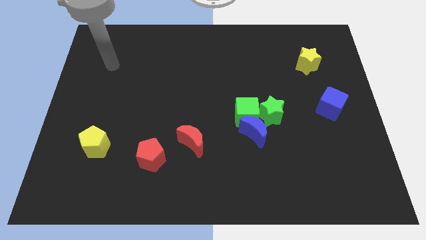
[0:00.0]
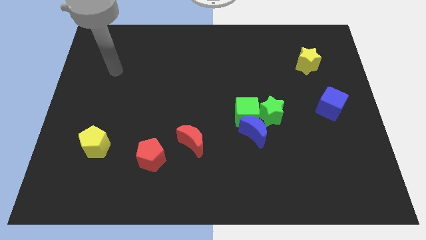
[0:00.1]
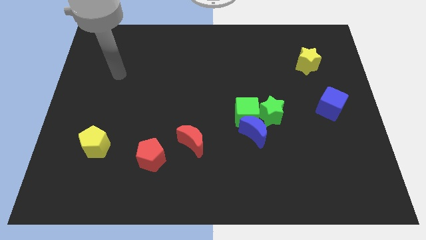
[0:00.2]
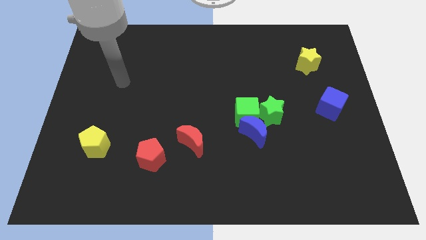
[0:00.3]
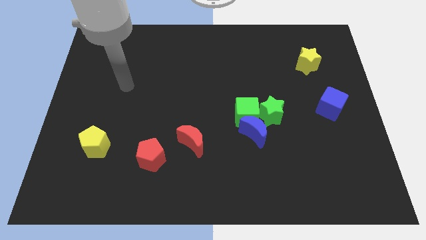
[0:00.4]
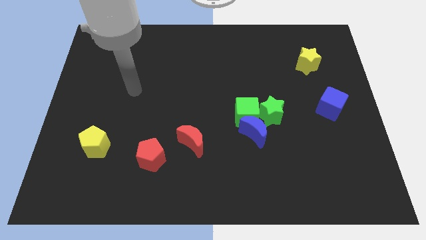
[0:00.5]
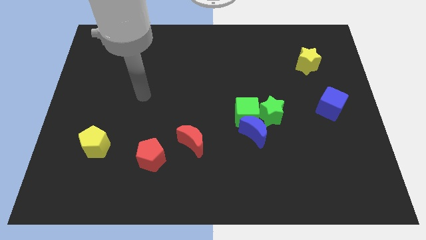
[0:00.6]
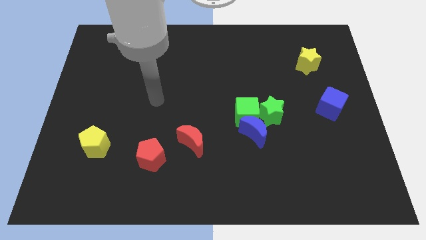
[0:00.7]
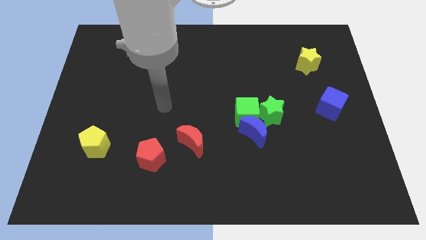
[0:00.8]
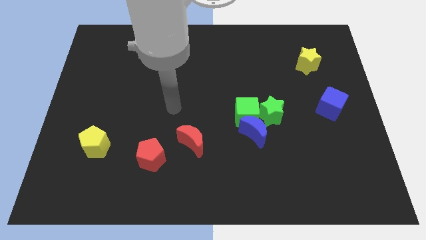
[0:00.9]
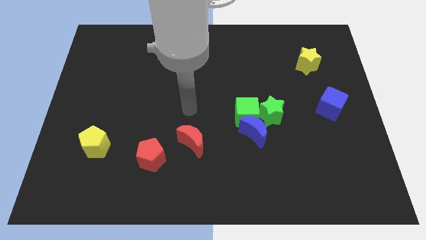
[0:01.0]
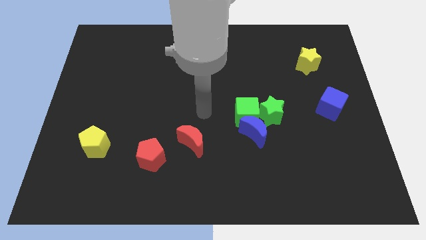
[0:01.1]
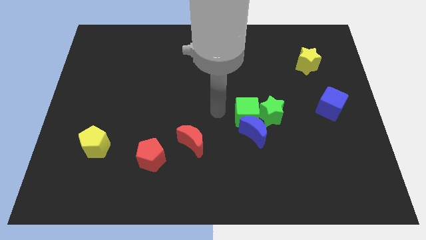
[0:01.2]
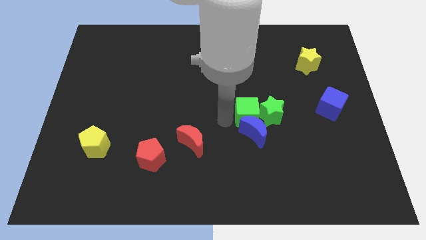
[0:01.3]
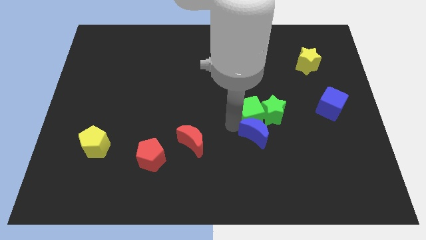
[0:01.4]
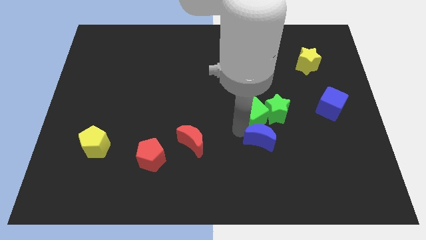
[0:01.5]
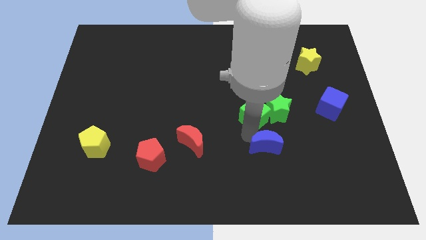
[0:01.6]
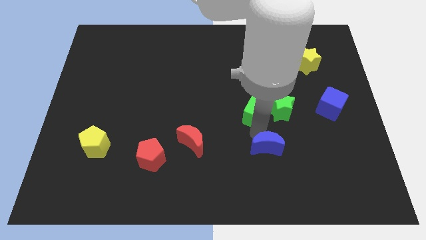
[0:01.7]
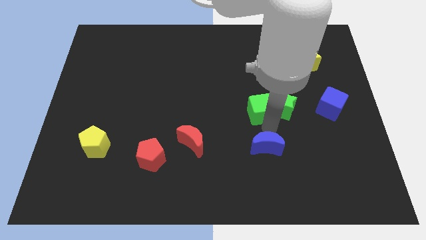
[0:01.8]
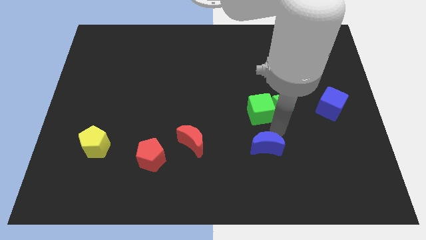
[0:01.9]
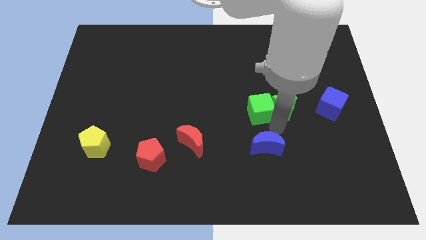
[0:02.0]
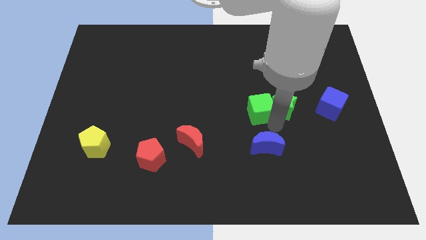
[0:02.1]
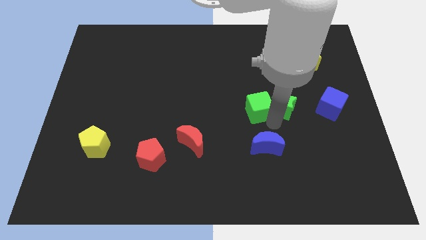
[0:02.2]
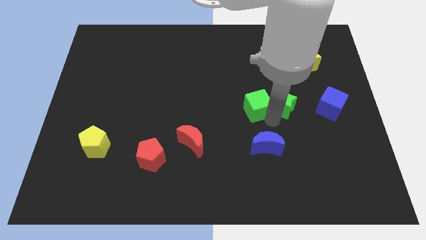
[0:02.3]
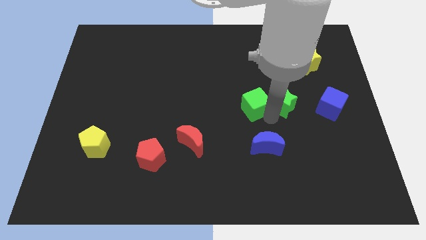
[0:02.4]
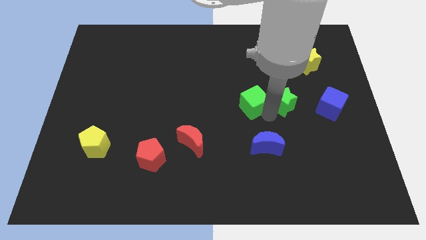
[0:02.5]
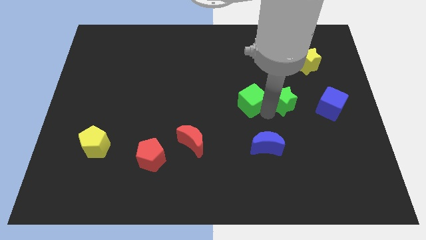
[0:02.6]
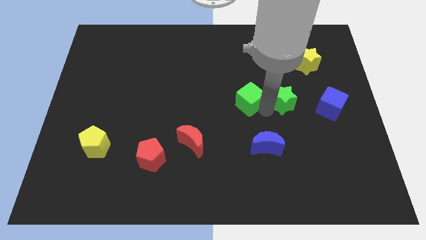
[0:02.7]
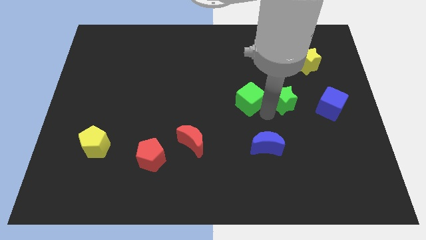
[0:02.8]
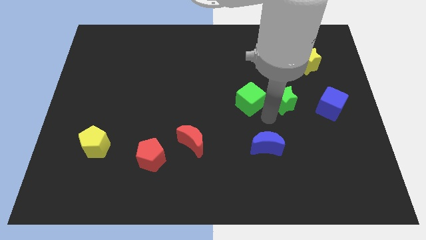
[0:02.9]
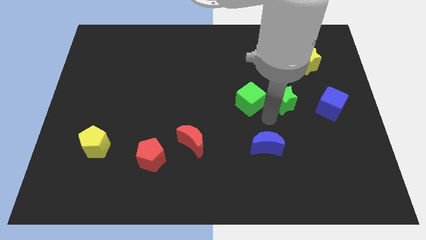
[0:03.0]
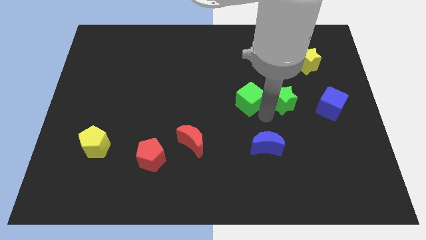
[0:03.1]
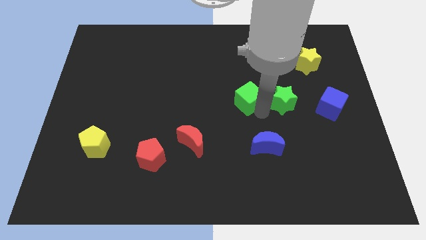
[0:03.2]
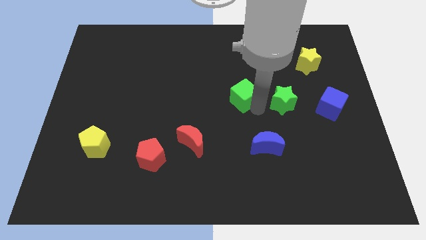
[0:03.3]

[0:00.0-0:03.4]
move the green cube away from the blue moon and green star

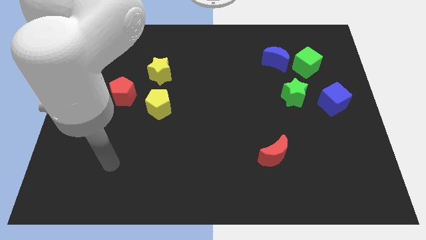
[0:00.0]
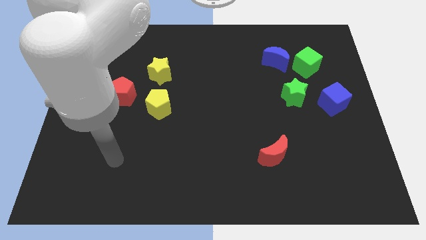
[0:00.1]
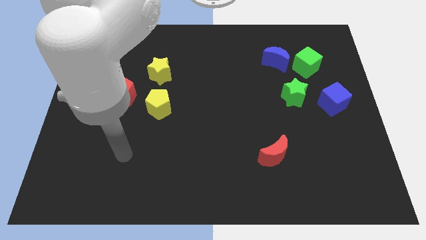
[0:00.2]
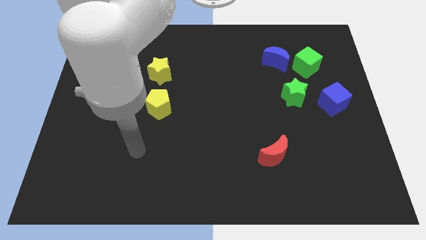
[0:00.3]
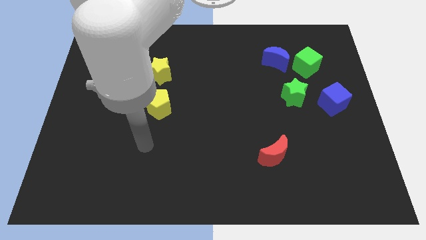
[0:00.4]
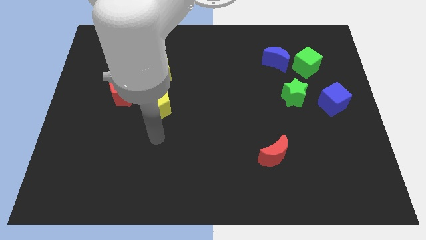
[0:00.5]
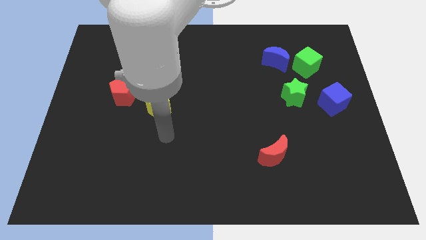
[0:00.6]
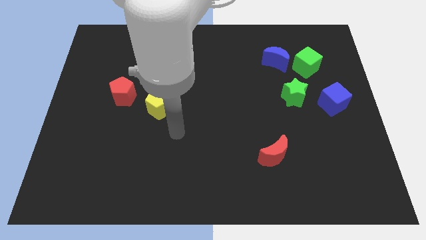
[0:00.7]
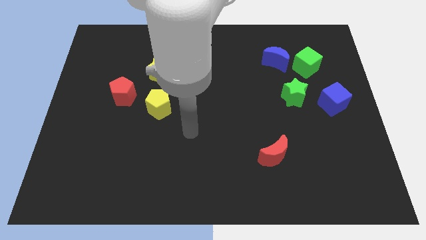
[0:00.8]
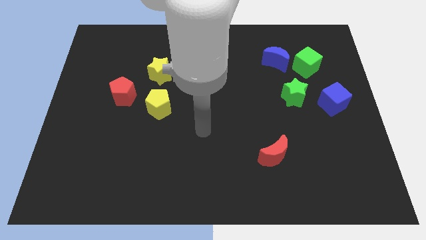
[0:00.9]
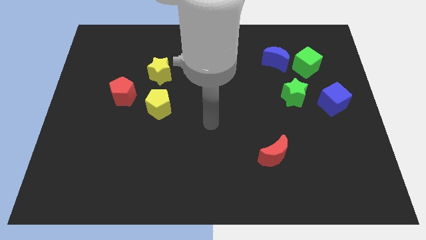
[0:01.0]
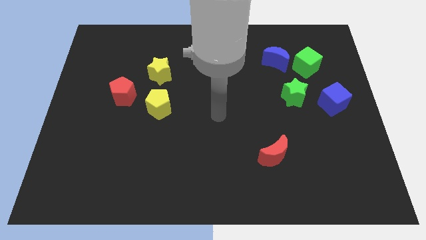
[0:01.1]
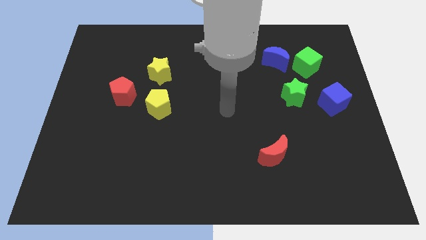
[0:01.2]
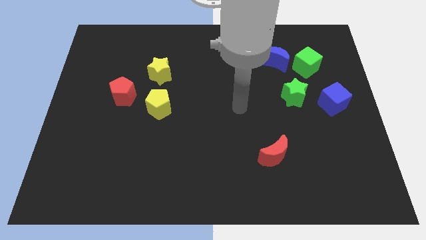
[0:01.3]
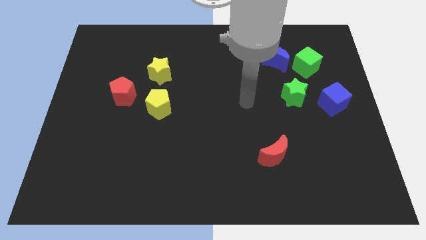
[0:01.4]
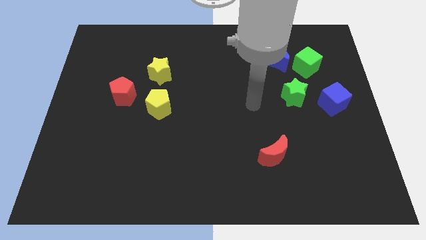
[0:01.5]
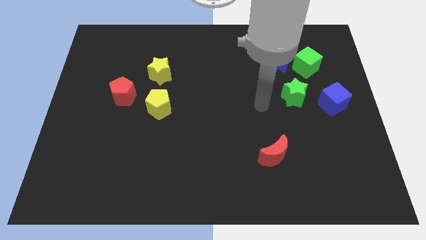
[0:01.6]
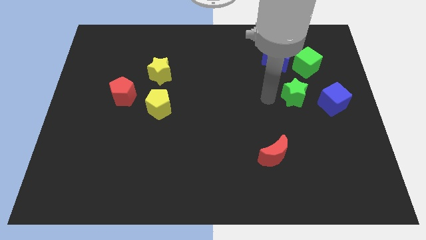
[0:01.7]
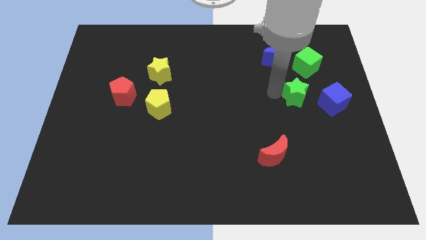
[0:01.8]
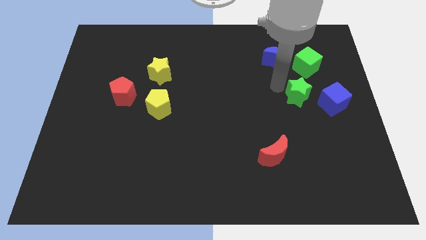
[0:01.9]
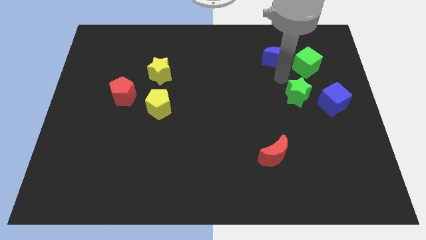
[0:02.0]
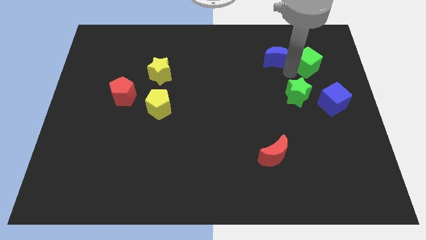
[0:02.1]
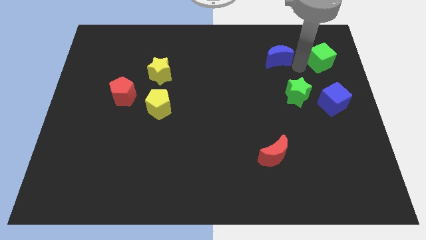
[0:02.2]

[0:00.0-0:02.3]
pull the blue moon apart from the green cube

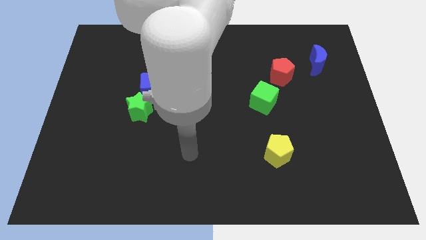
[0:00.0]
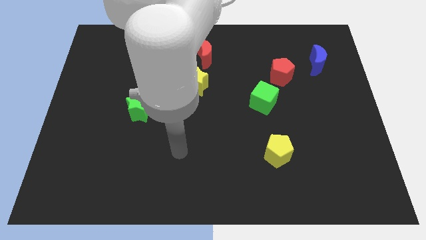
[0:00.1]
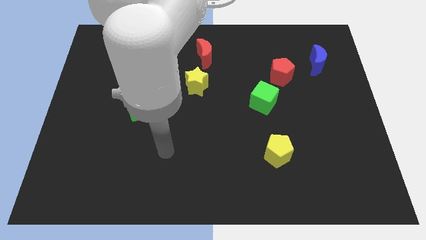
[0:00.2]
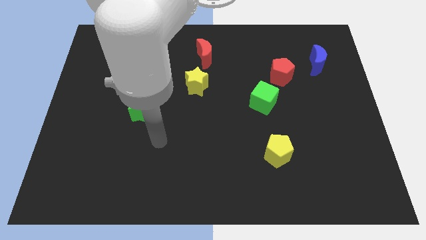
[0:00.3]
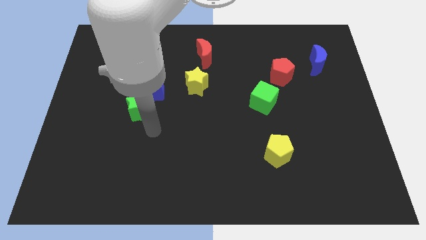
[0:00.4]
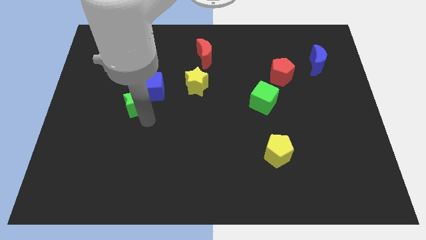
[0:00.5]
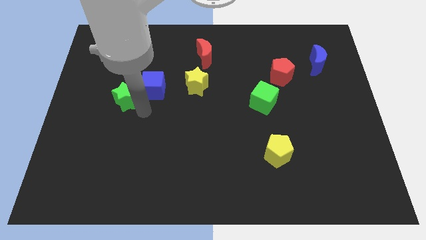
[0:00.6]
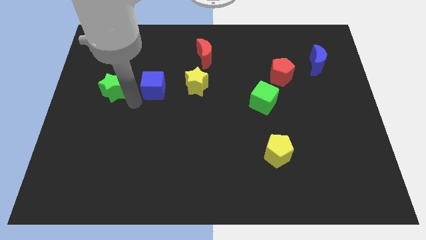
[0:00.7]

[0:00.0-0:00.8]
move the blue cube away from the green star

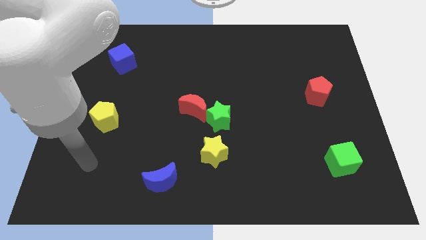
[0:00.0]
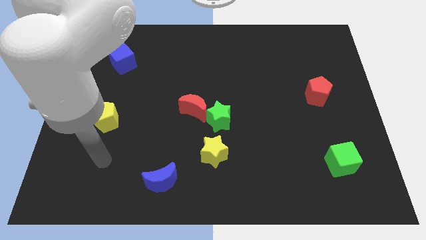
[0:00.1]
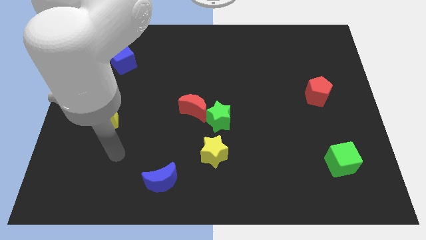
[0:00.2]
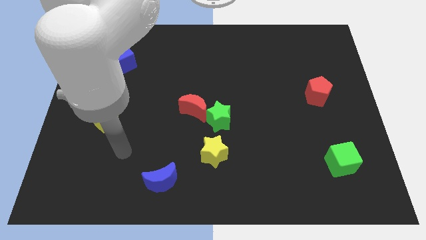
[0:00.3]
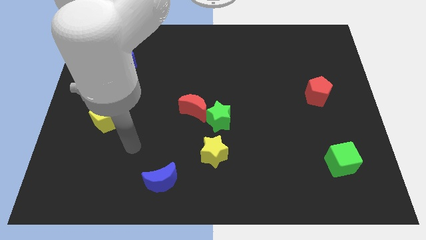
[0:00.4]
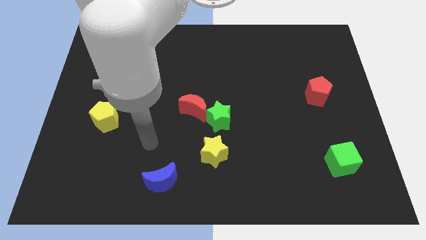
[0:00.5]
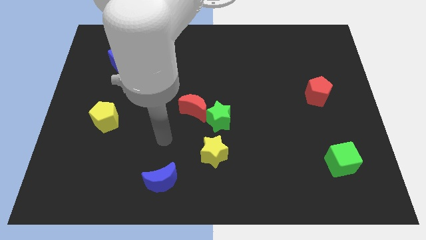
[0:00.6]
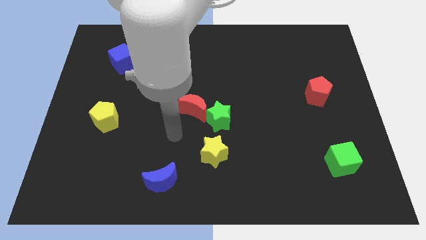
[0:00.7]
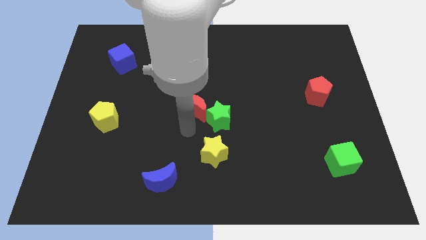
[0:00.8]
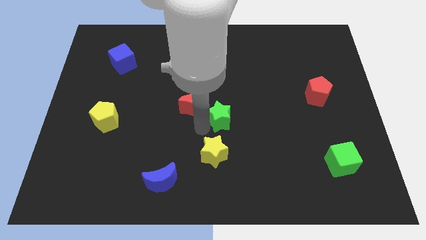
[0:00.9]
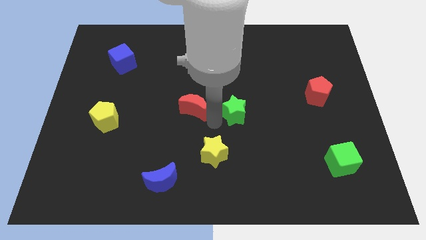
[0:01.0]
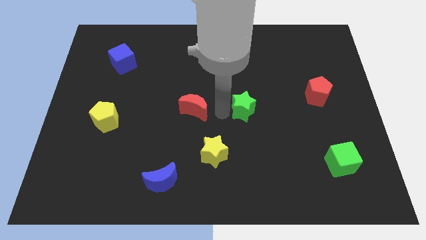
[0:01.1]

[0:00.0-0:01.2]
pull the red moon apart from the green star

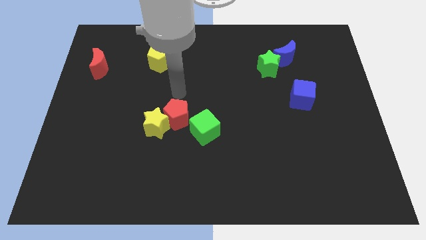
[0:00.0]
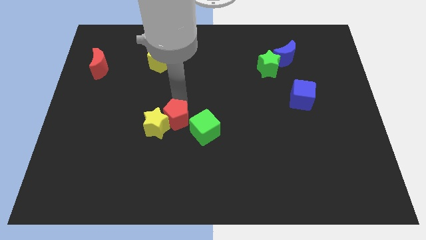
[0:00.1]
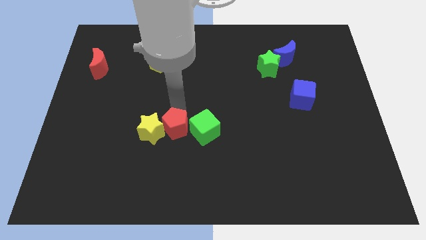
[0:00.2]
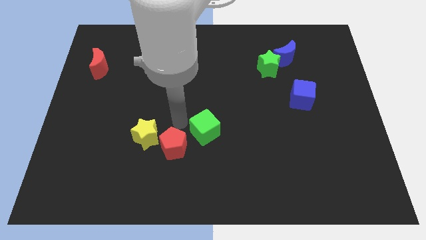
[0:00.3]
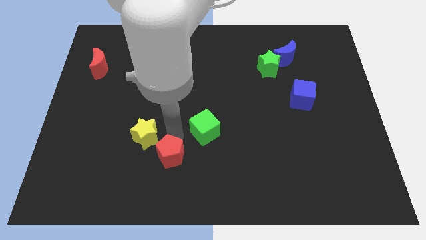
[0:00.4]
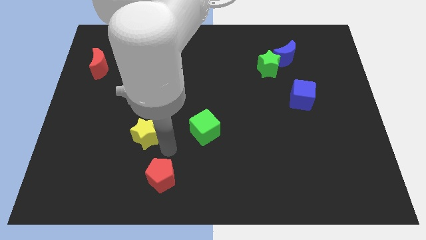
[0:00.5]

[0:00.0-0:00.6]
pull the yellow star apart from the red pentagon

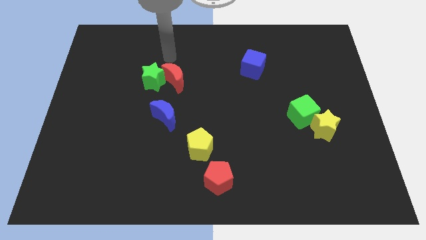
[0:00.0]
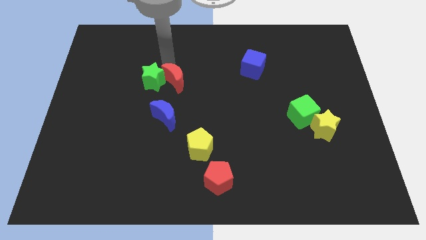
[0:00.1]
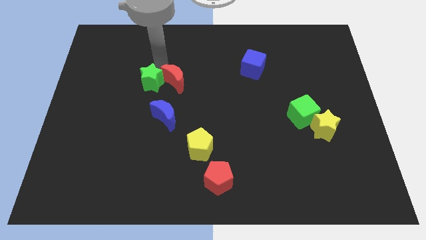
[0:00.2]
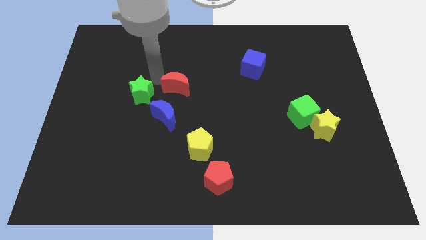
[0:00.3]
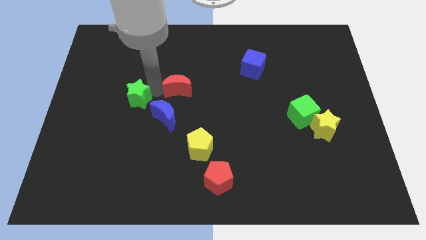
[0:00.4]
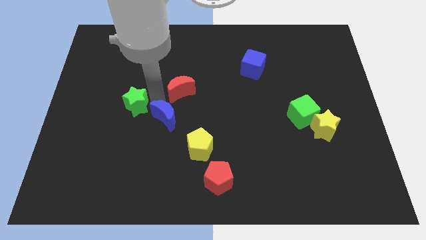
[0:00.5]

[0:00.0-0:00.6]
separate the red moon from the green star

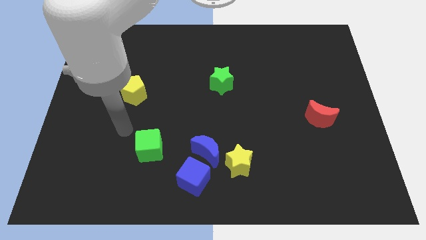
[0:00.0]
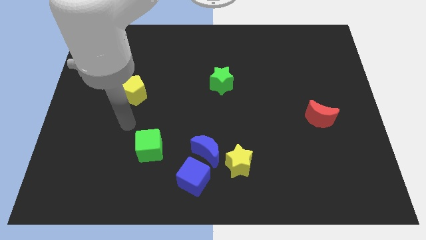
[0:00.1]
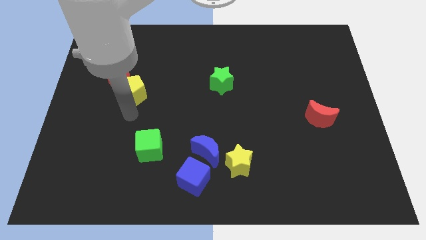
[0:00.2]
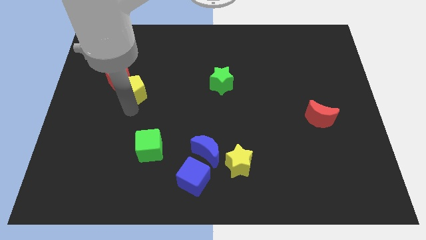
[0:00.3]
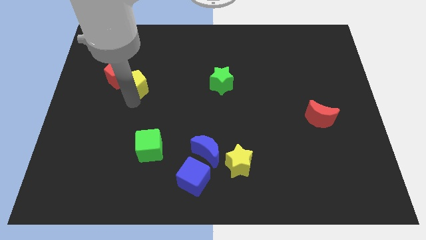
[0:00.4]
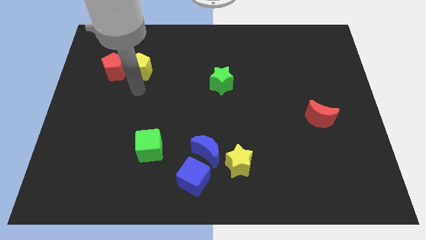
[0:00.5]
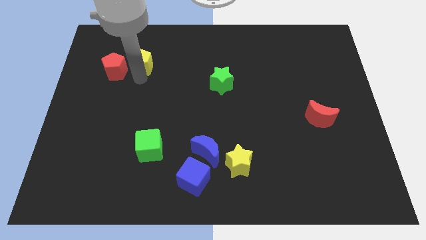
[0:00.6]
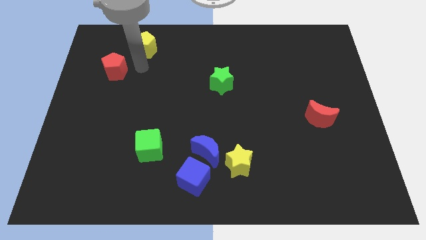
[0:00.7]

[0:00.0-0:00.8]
move the red pentagon away from the yellow pentagon
